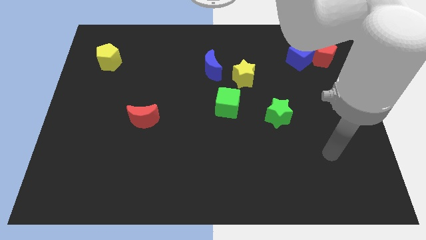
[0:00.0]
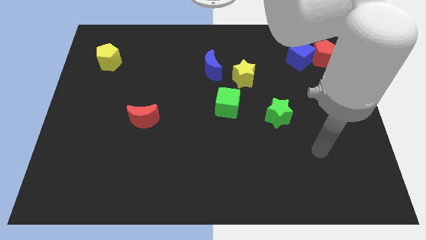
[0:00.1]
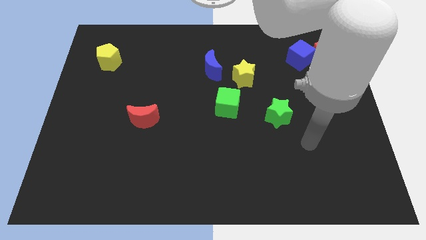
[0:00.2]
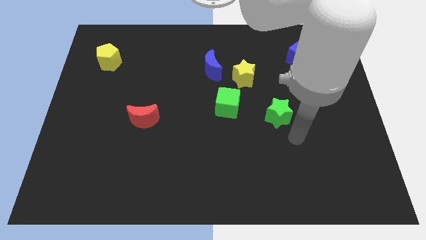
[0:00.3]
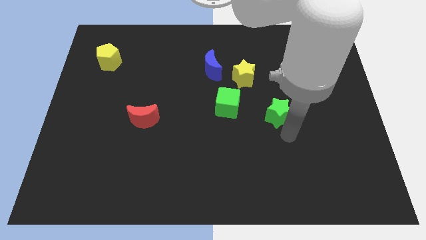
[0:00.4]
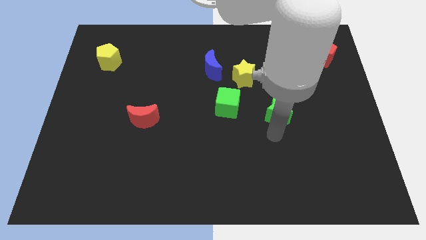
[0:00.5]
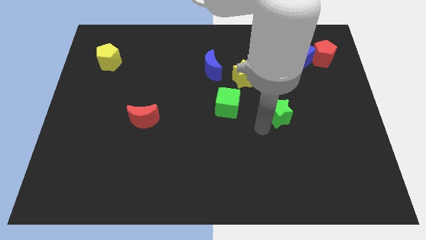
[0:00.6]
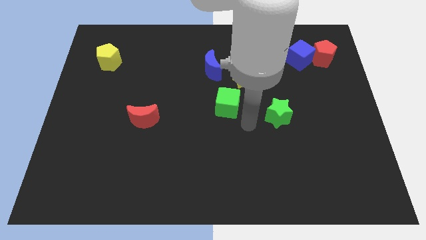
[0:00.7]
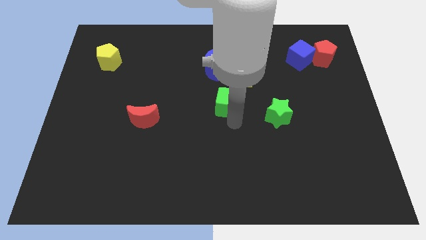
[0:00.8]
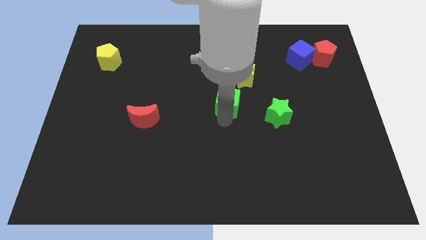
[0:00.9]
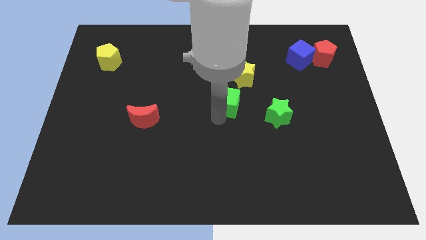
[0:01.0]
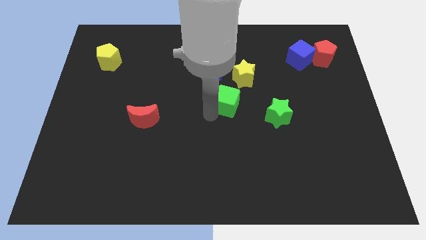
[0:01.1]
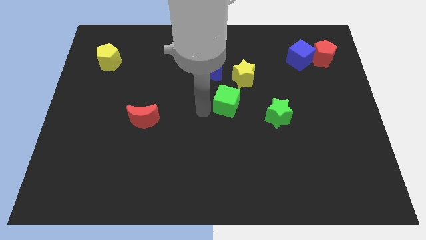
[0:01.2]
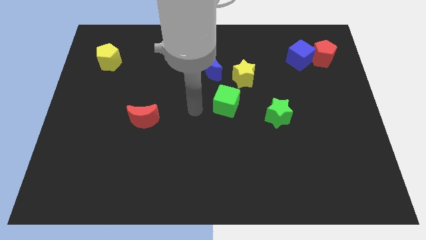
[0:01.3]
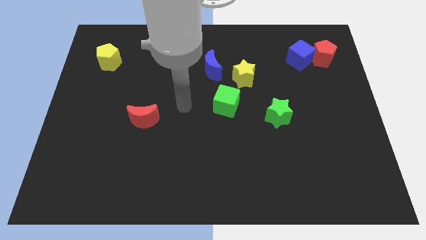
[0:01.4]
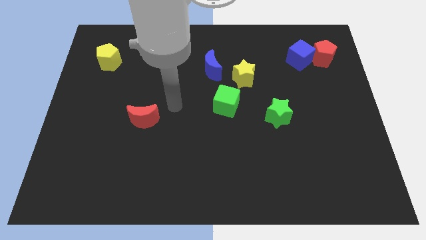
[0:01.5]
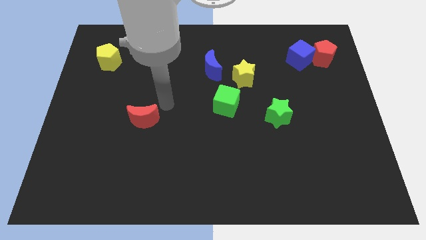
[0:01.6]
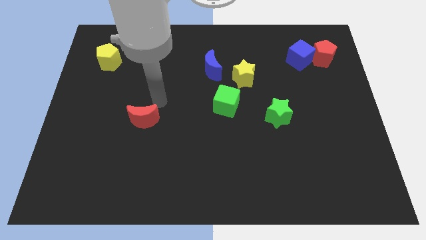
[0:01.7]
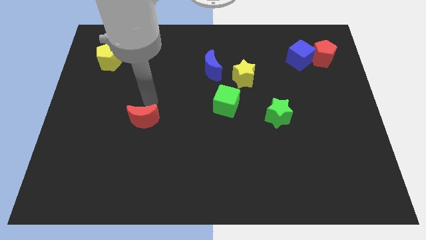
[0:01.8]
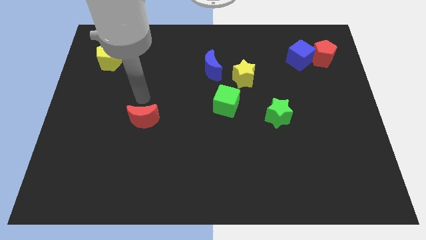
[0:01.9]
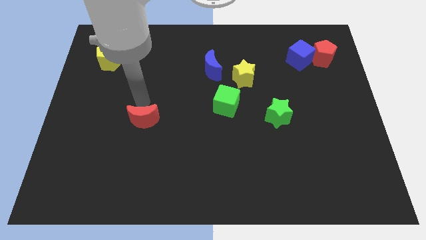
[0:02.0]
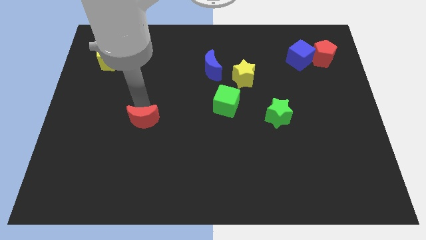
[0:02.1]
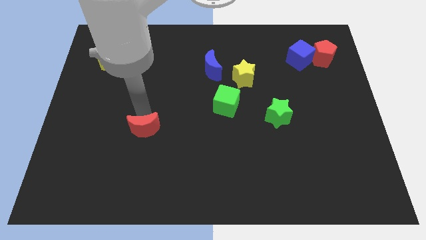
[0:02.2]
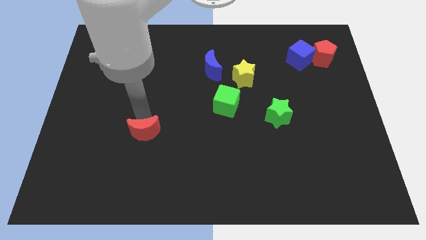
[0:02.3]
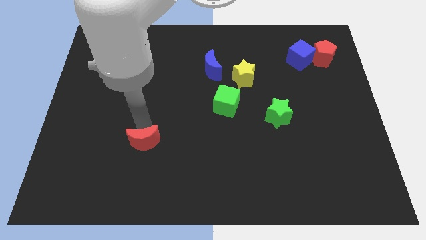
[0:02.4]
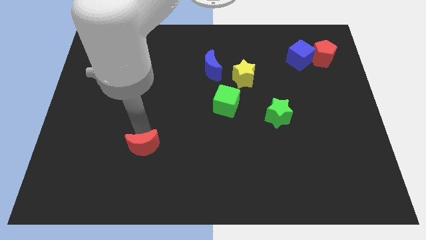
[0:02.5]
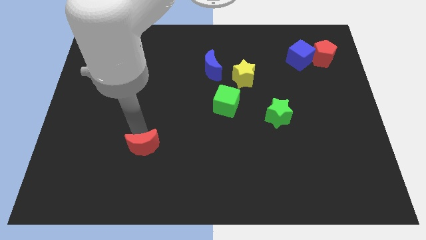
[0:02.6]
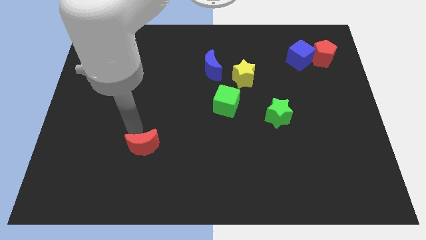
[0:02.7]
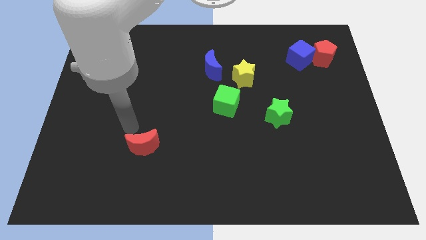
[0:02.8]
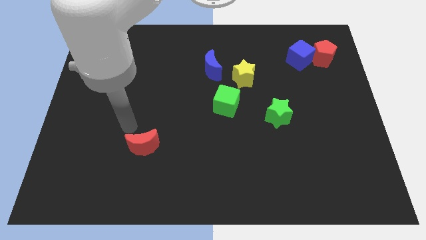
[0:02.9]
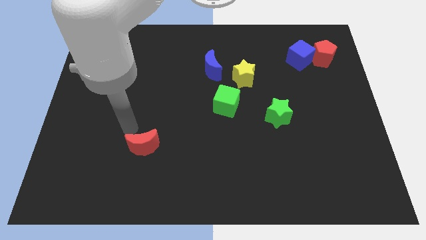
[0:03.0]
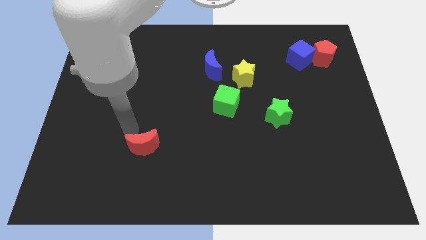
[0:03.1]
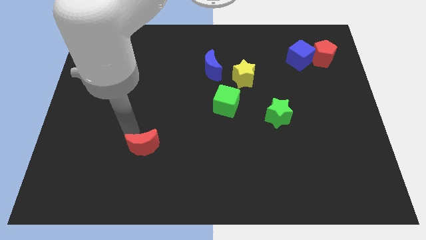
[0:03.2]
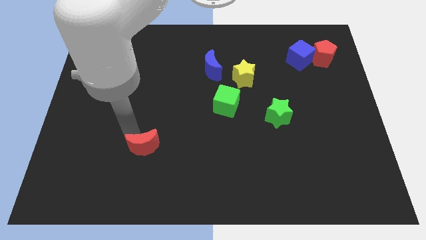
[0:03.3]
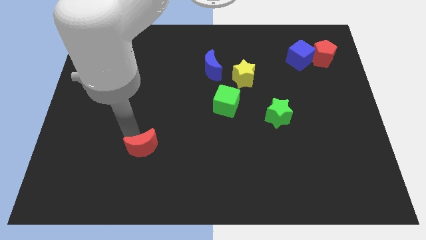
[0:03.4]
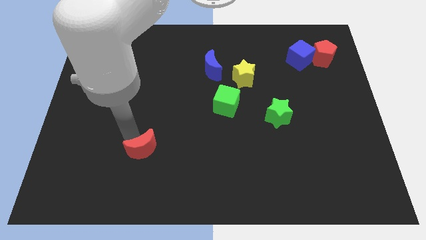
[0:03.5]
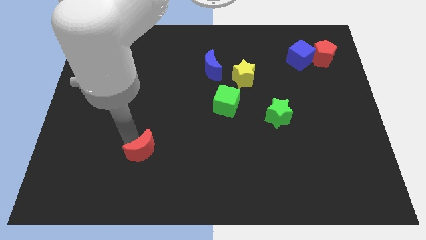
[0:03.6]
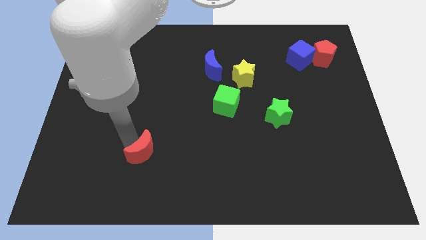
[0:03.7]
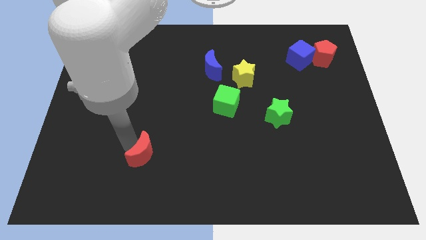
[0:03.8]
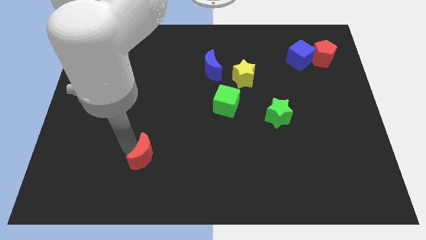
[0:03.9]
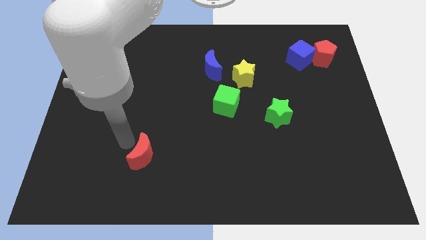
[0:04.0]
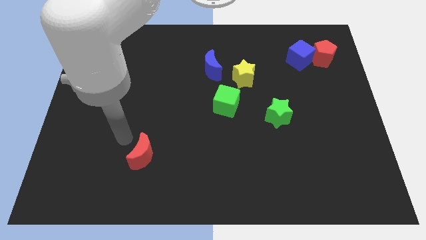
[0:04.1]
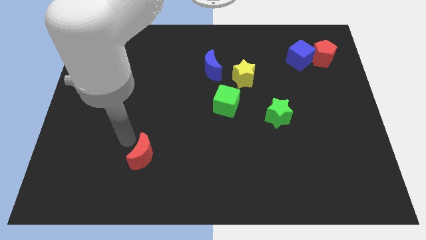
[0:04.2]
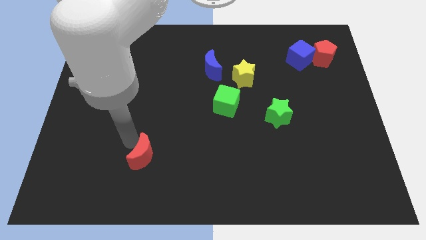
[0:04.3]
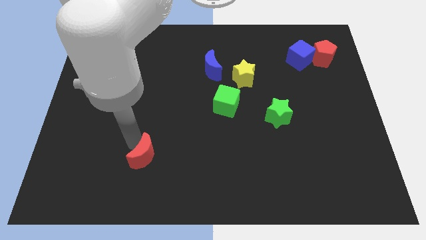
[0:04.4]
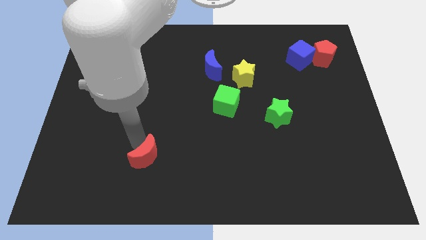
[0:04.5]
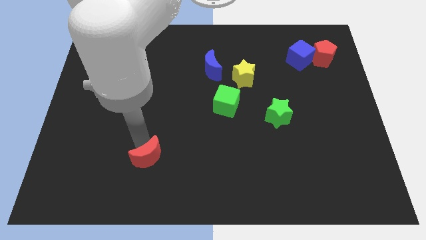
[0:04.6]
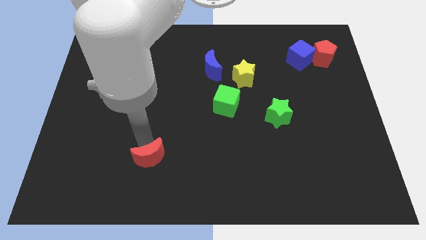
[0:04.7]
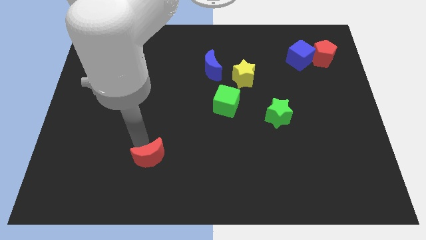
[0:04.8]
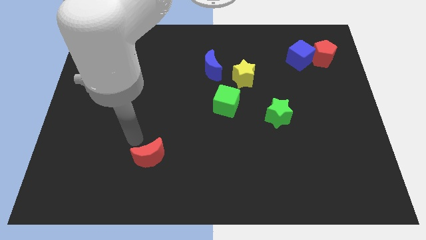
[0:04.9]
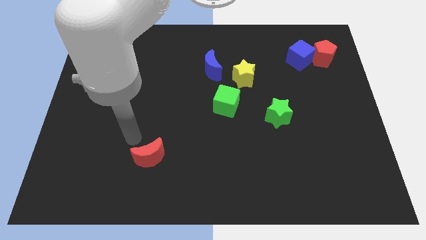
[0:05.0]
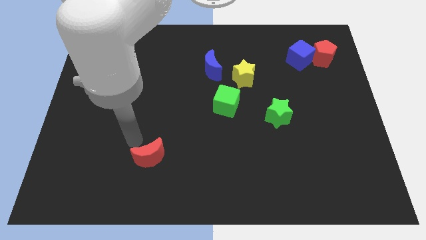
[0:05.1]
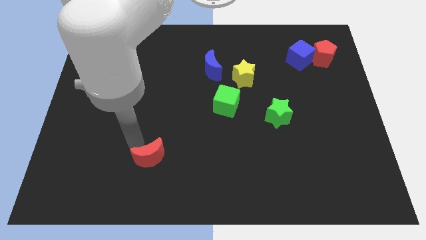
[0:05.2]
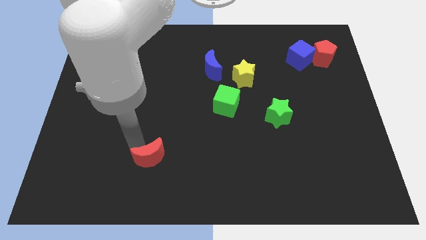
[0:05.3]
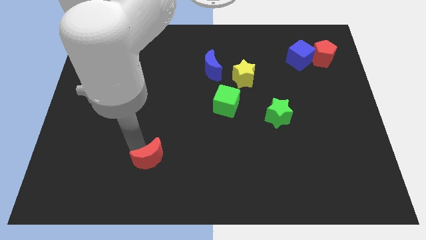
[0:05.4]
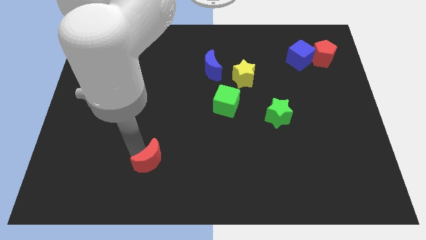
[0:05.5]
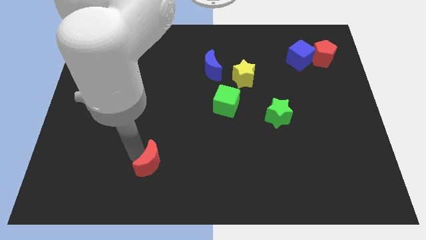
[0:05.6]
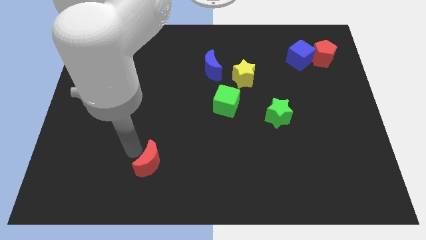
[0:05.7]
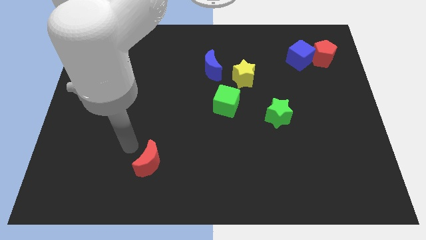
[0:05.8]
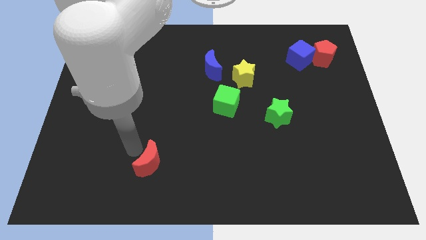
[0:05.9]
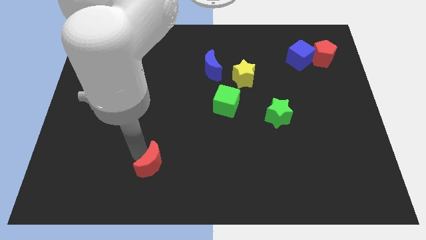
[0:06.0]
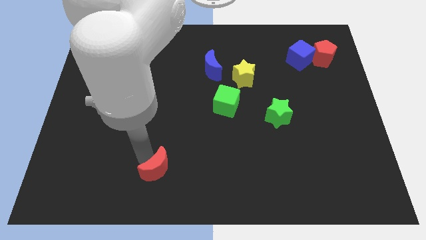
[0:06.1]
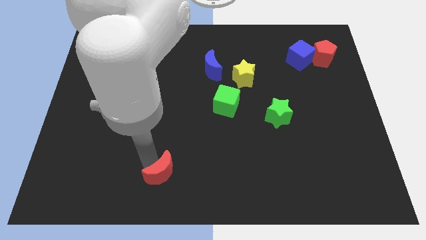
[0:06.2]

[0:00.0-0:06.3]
slide the red moon to the bottom

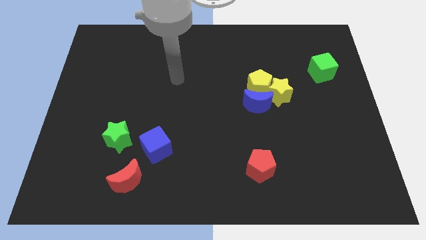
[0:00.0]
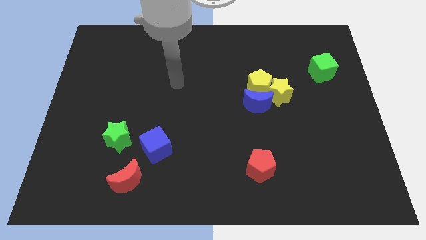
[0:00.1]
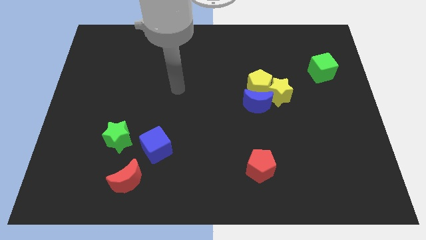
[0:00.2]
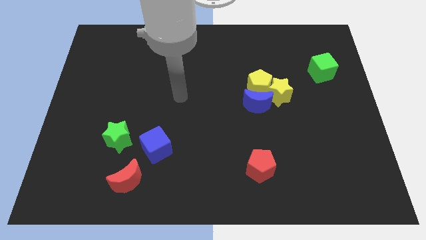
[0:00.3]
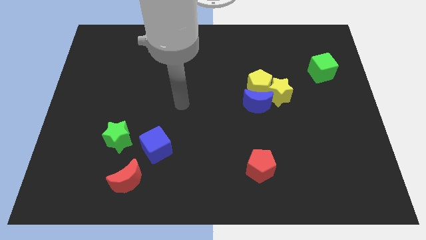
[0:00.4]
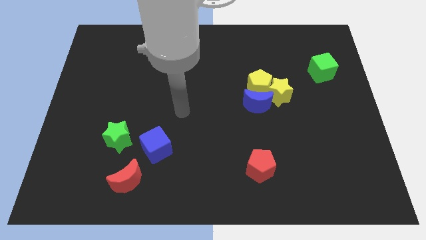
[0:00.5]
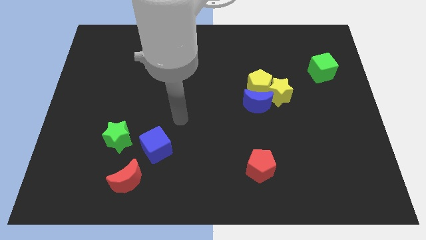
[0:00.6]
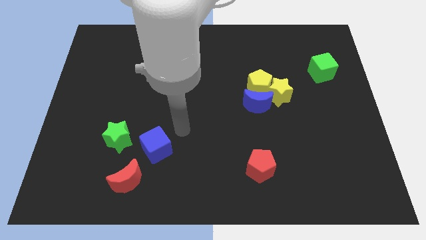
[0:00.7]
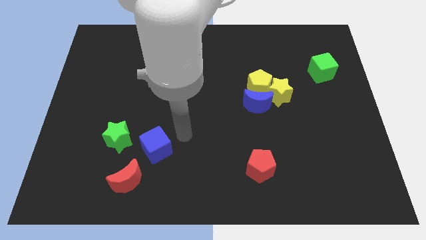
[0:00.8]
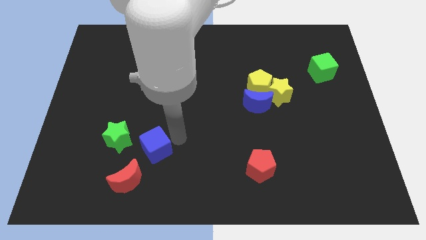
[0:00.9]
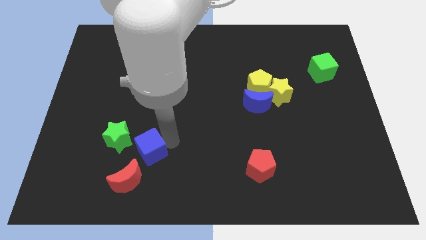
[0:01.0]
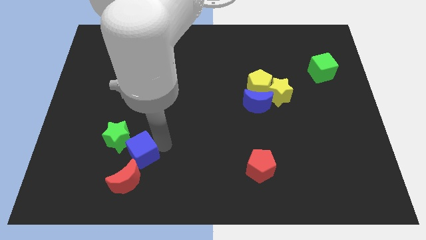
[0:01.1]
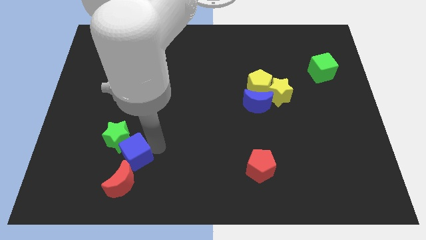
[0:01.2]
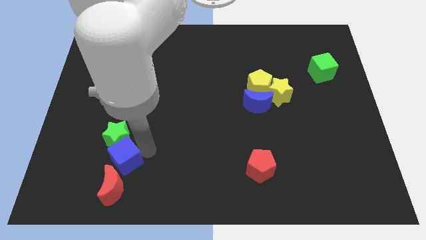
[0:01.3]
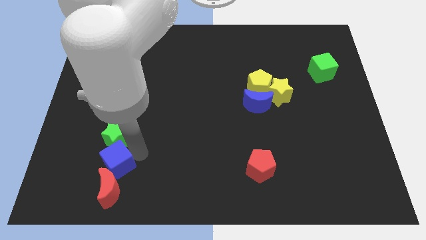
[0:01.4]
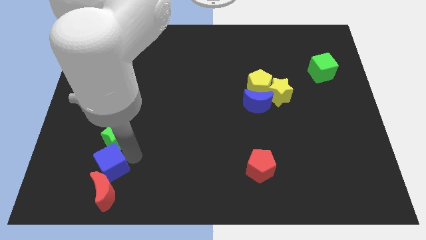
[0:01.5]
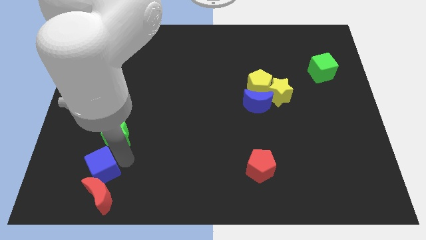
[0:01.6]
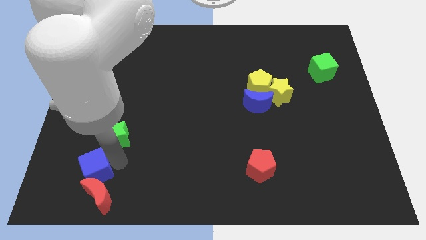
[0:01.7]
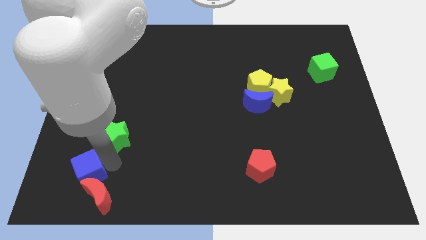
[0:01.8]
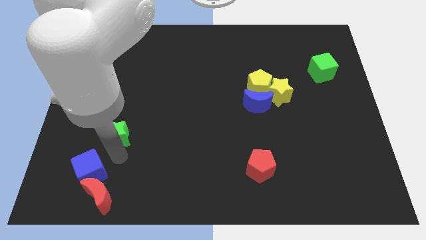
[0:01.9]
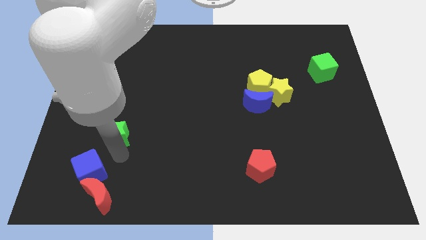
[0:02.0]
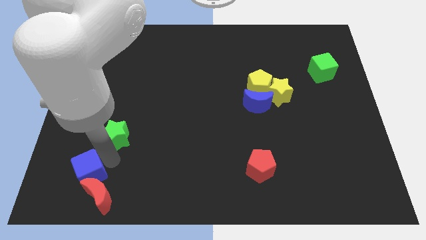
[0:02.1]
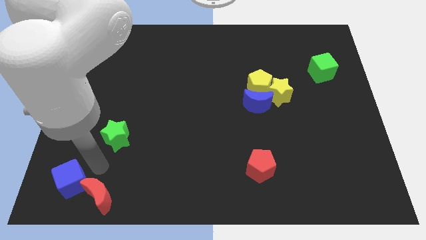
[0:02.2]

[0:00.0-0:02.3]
put the blue cube to the bottom left corner
